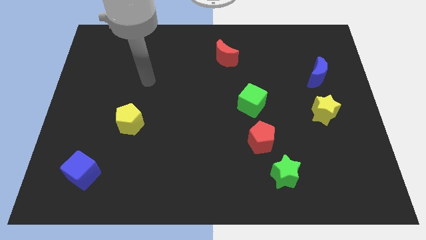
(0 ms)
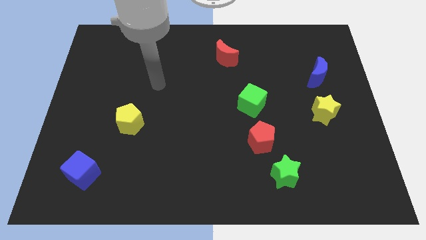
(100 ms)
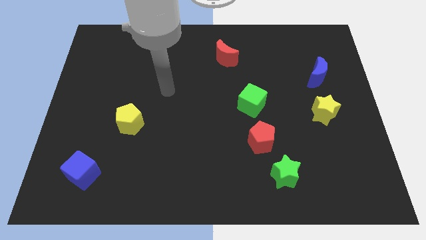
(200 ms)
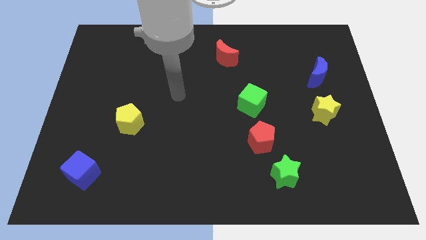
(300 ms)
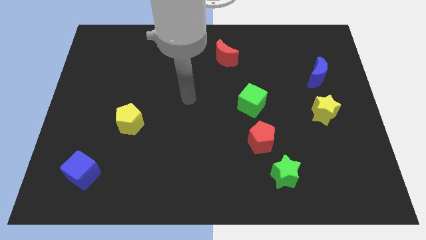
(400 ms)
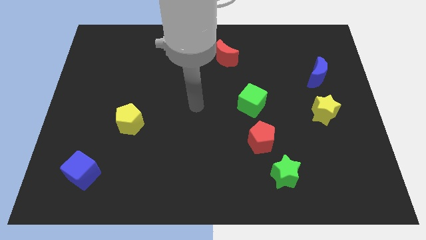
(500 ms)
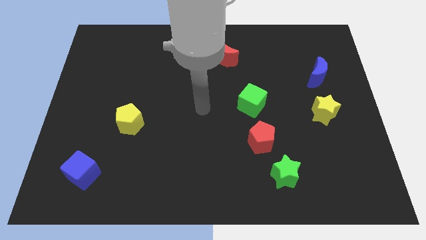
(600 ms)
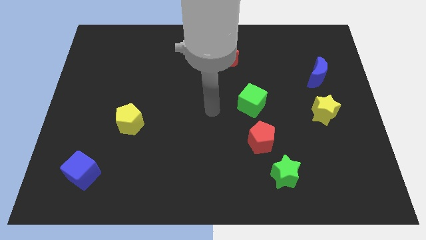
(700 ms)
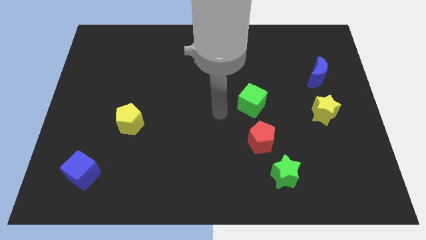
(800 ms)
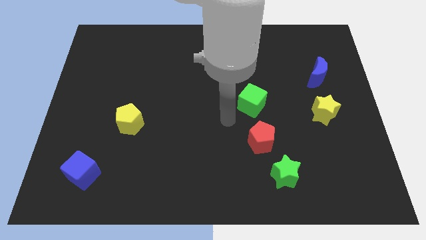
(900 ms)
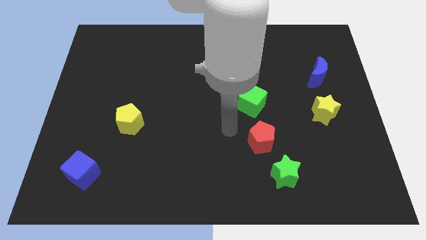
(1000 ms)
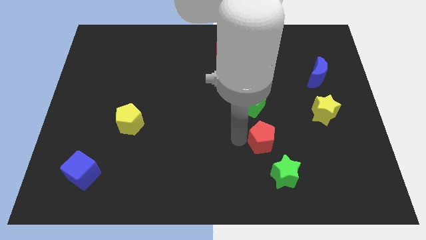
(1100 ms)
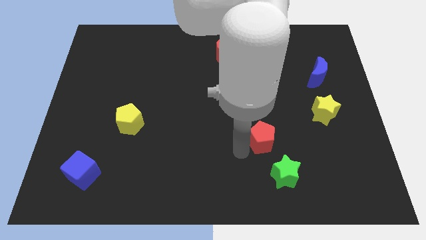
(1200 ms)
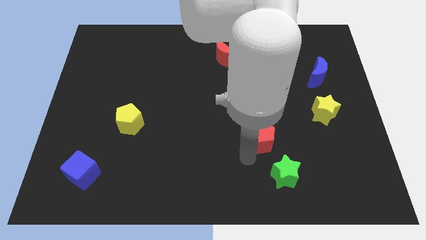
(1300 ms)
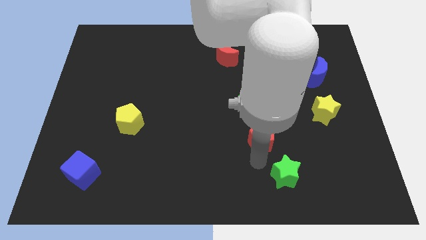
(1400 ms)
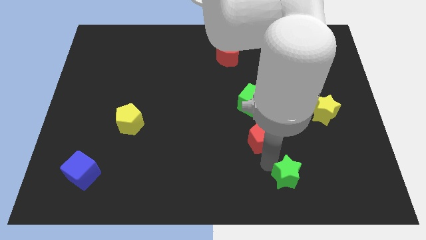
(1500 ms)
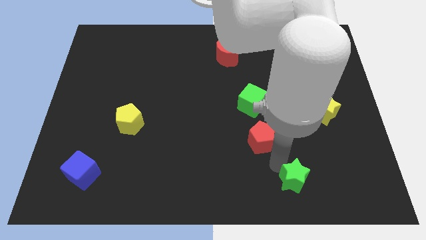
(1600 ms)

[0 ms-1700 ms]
pull the red pentagon apart from the green star

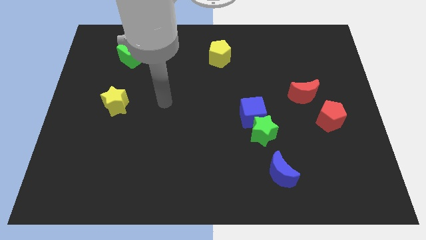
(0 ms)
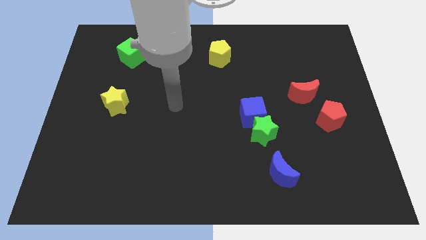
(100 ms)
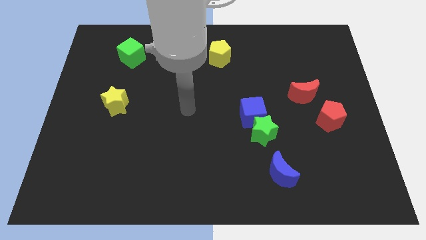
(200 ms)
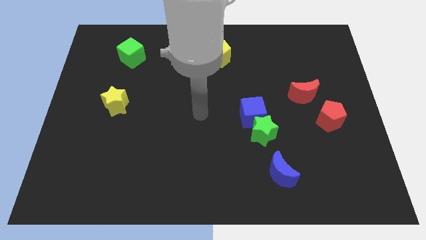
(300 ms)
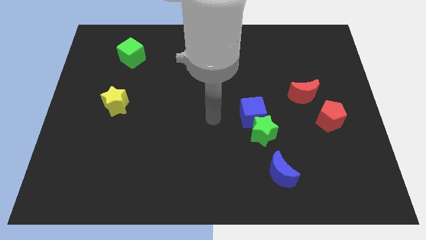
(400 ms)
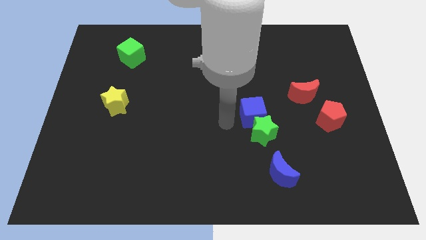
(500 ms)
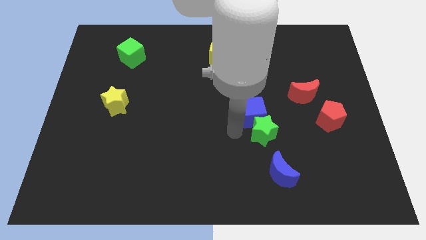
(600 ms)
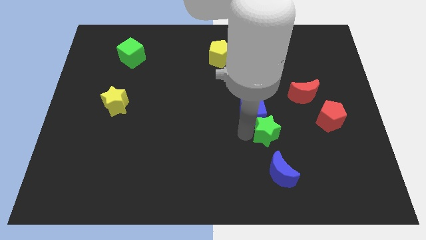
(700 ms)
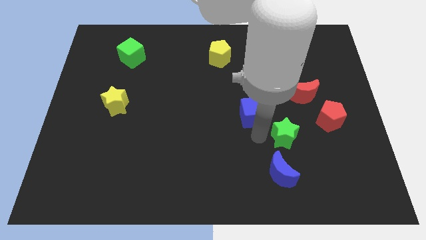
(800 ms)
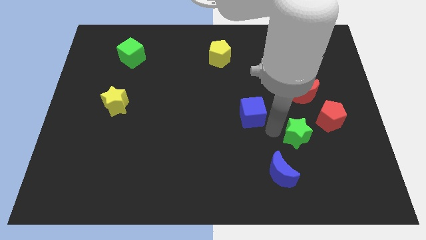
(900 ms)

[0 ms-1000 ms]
separate the blue cube from the green star

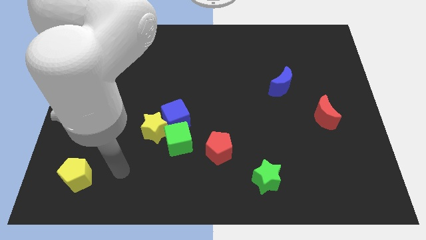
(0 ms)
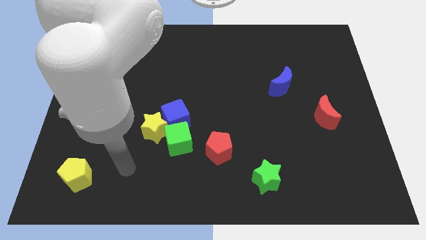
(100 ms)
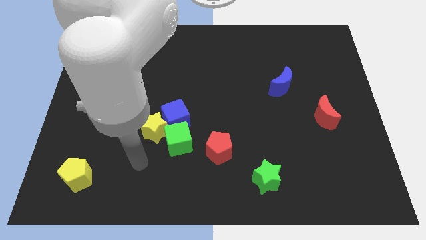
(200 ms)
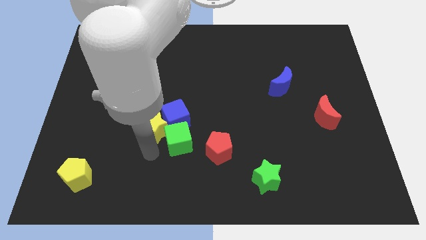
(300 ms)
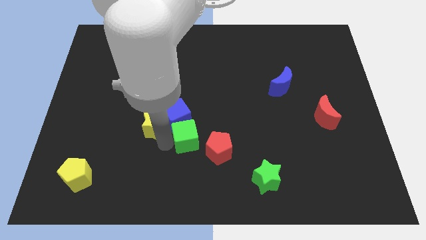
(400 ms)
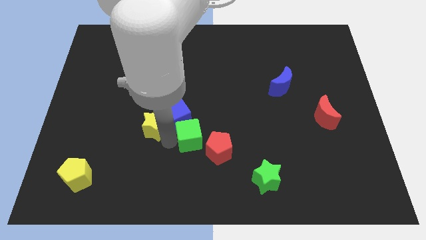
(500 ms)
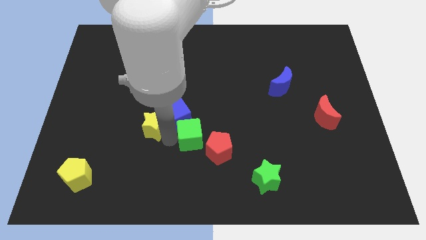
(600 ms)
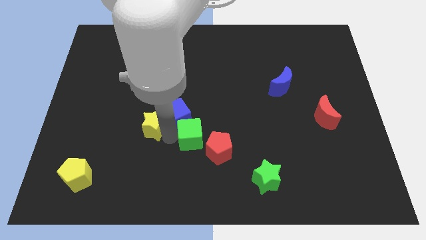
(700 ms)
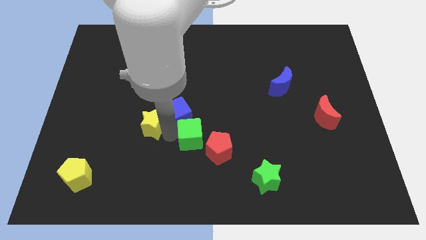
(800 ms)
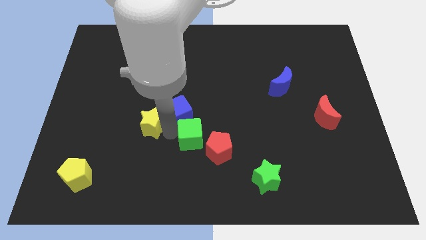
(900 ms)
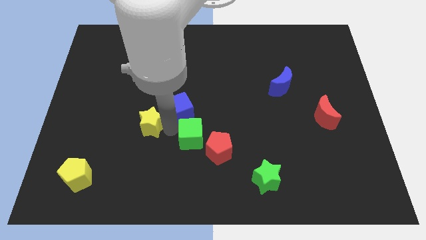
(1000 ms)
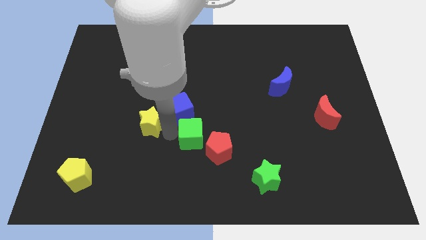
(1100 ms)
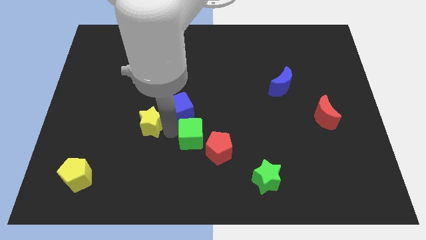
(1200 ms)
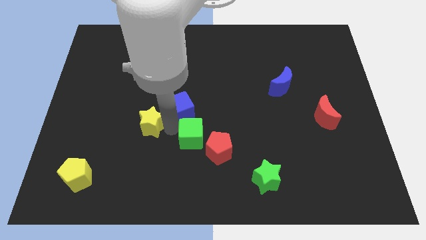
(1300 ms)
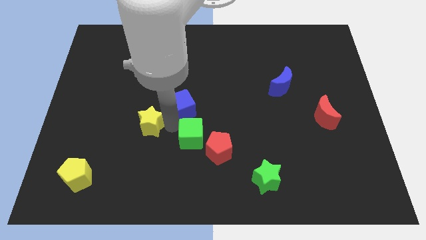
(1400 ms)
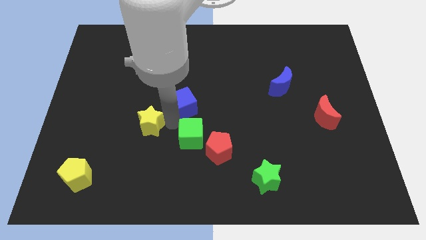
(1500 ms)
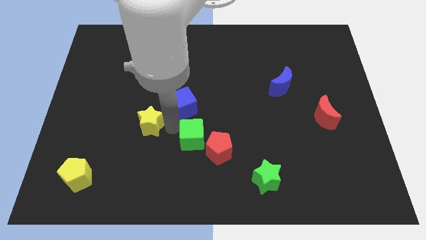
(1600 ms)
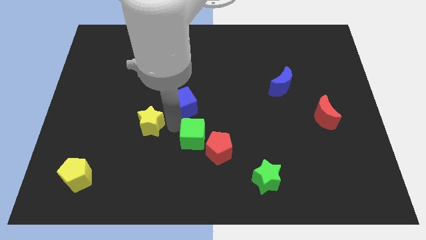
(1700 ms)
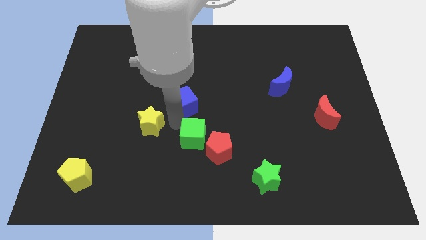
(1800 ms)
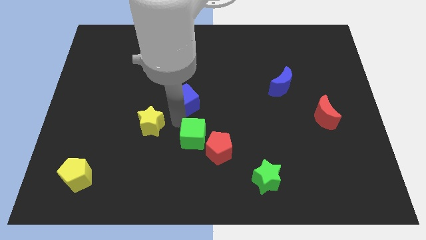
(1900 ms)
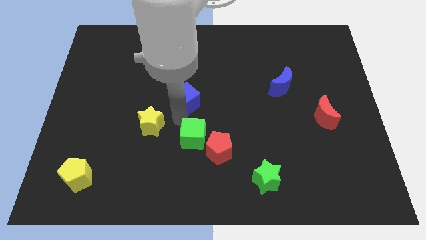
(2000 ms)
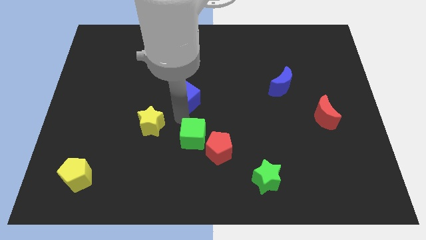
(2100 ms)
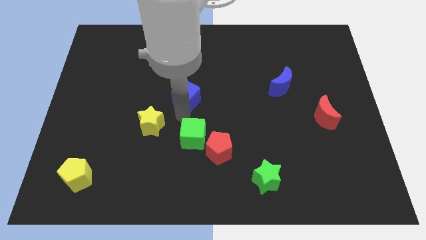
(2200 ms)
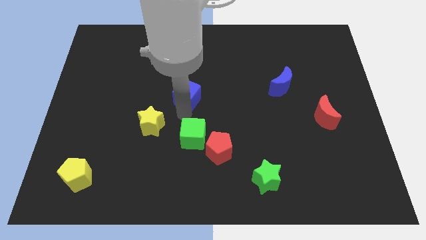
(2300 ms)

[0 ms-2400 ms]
pull the blue cube apart from the yellow star and green cube

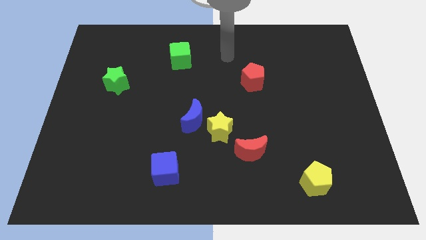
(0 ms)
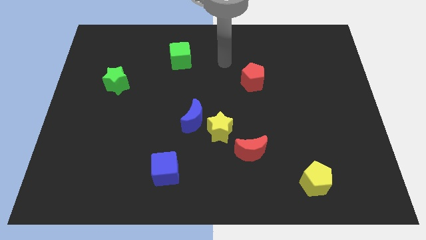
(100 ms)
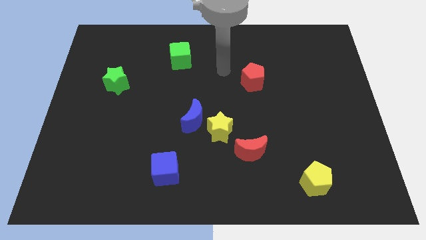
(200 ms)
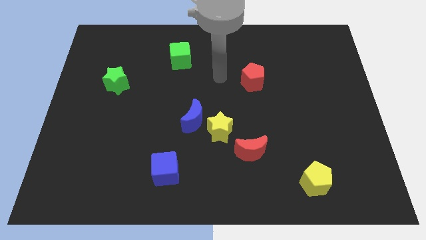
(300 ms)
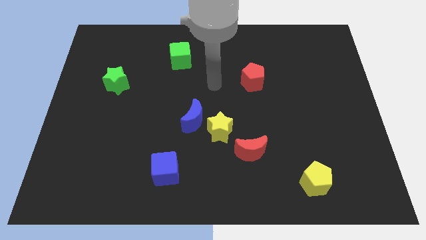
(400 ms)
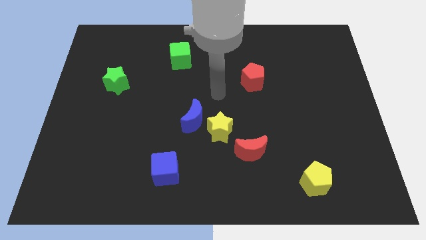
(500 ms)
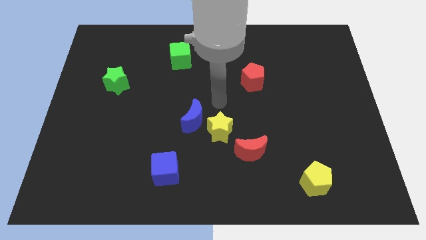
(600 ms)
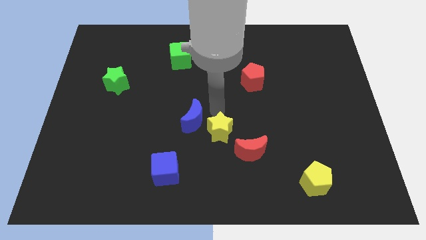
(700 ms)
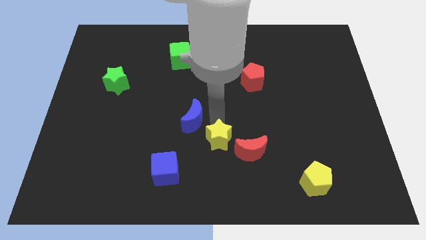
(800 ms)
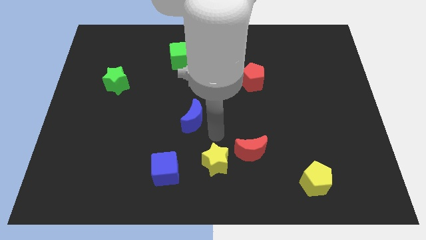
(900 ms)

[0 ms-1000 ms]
separate the blue moon from the yellow star

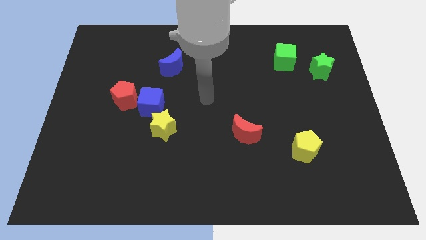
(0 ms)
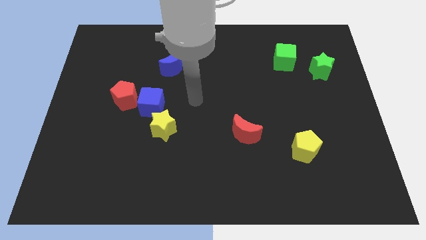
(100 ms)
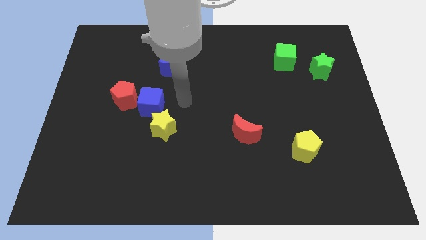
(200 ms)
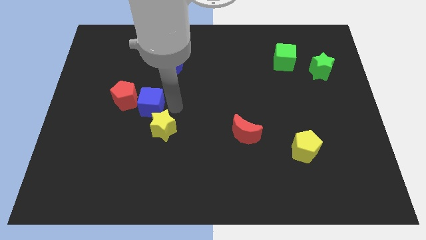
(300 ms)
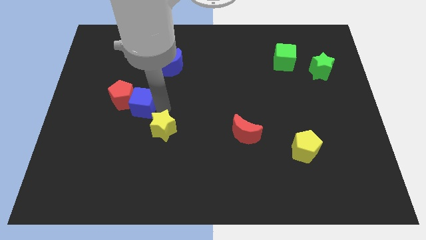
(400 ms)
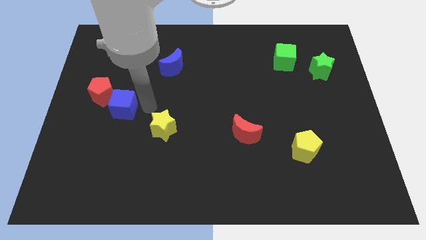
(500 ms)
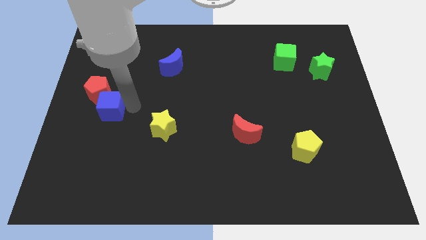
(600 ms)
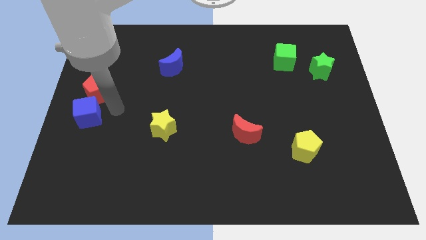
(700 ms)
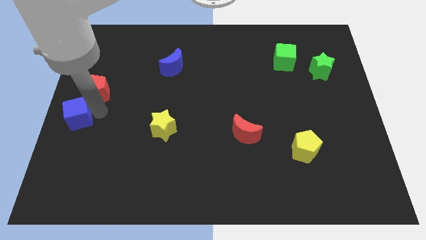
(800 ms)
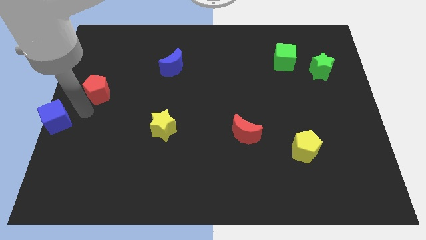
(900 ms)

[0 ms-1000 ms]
pull the red pentagon apart from the blue cube

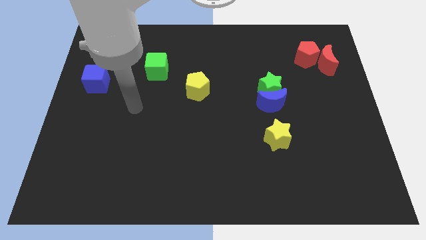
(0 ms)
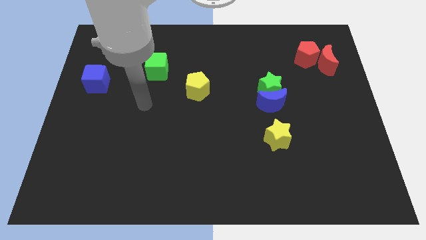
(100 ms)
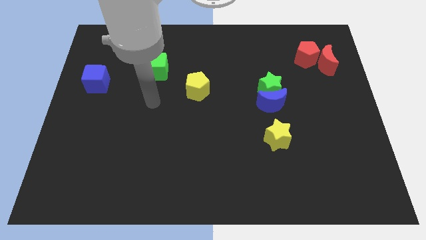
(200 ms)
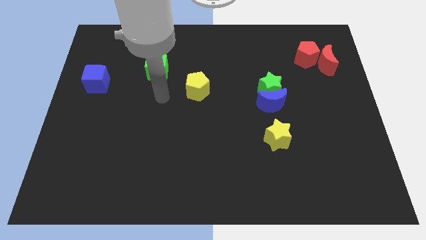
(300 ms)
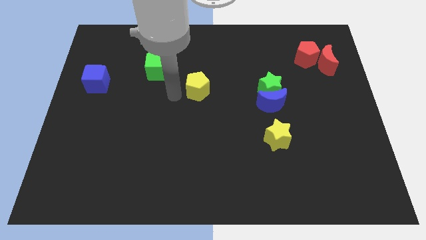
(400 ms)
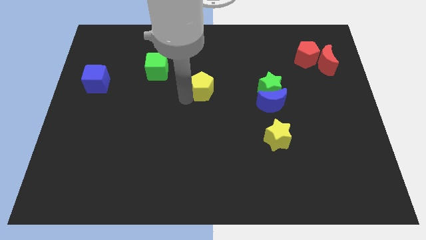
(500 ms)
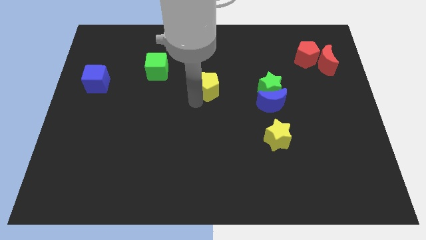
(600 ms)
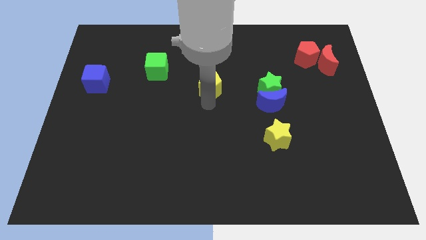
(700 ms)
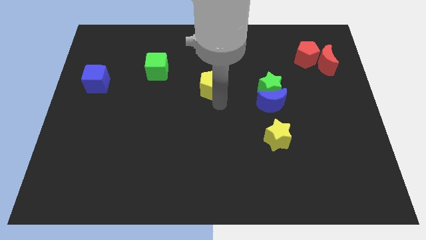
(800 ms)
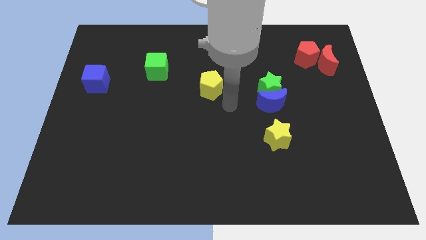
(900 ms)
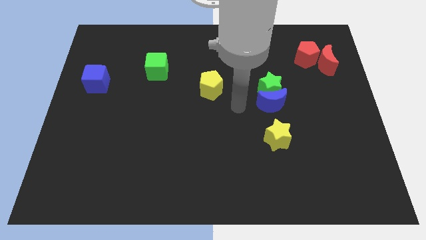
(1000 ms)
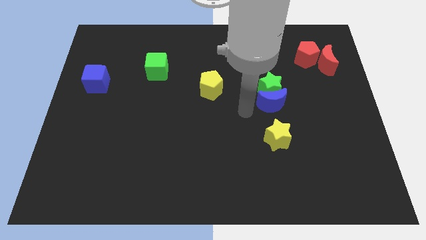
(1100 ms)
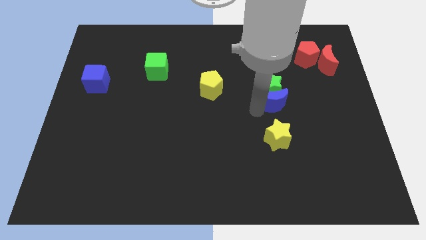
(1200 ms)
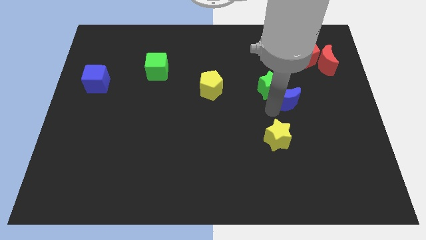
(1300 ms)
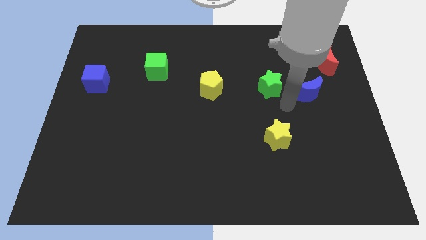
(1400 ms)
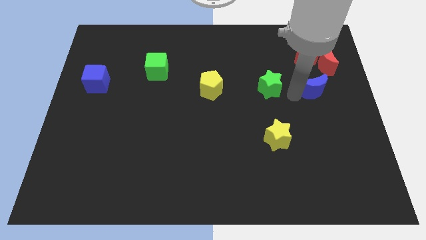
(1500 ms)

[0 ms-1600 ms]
separate the green star from the blue moon

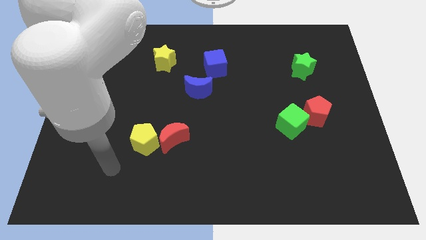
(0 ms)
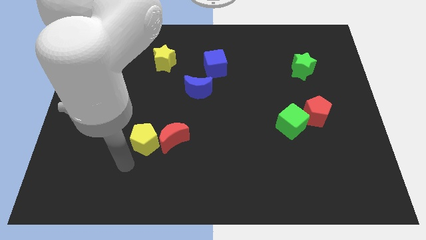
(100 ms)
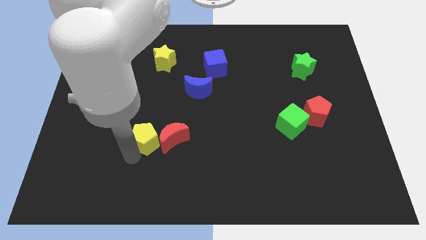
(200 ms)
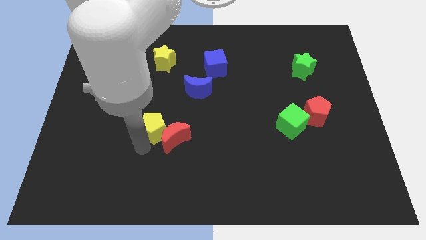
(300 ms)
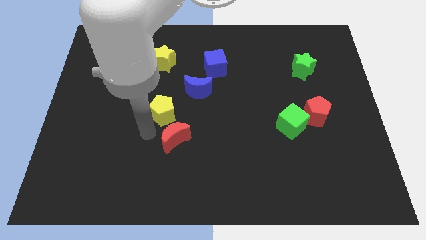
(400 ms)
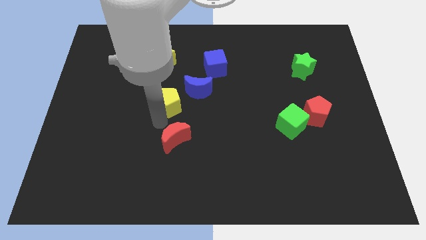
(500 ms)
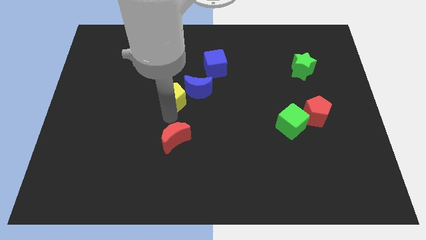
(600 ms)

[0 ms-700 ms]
move the red moon away from the yellow pentagon

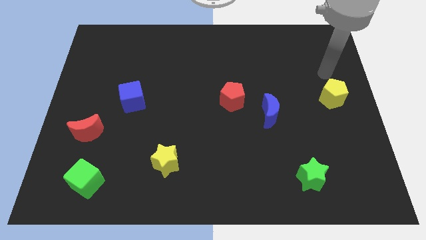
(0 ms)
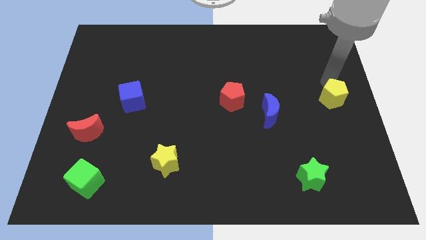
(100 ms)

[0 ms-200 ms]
separate the red pentagon from the blue moon
